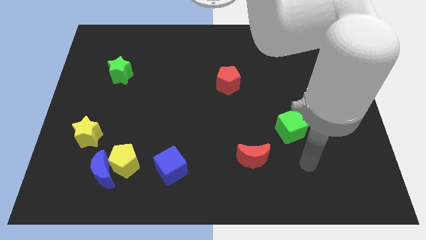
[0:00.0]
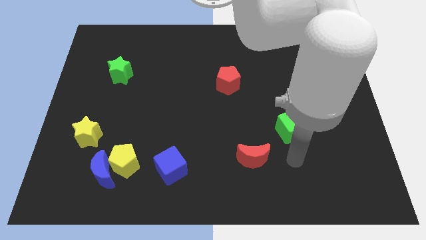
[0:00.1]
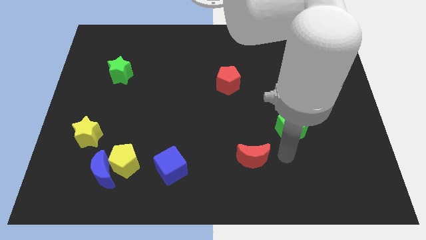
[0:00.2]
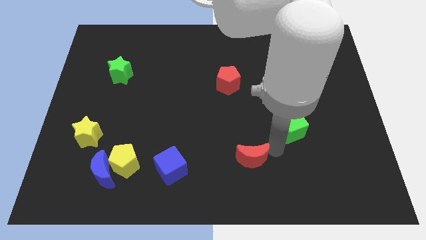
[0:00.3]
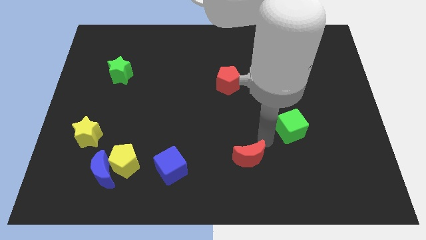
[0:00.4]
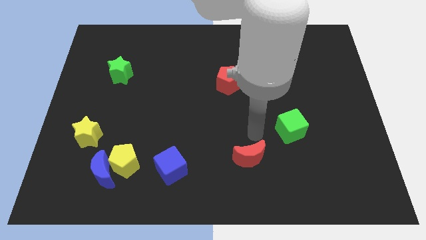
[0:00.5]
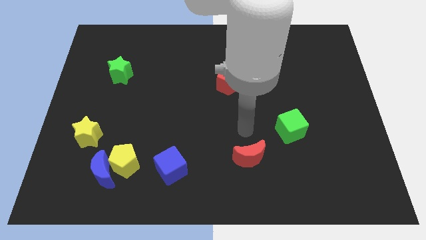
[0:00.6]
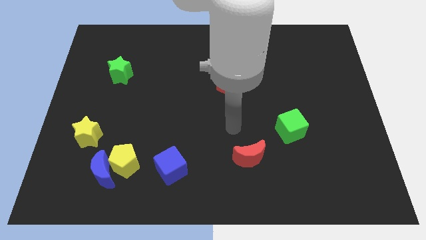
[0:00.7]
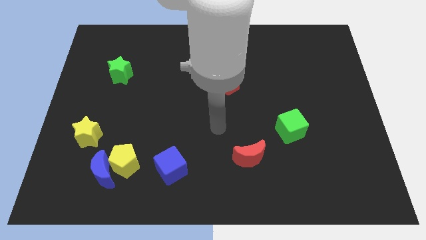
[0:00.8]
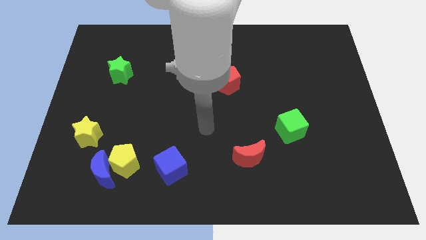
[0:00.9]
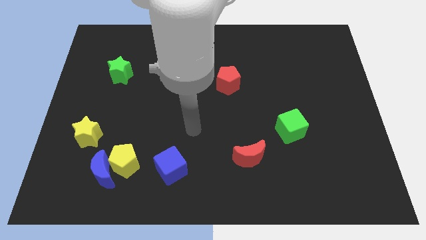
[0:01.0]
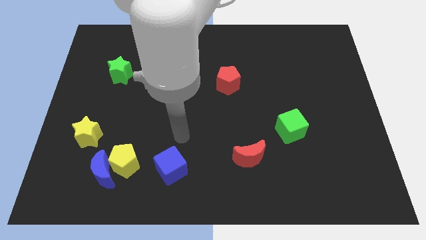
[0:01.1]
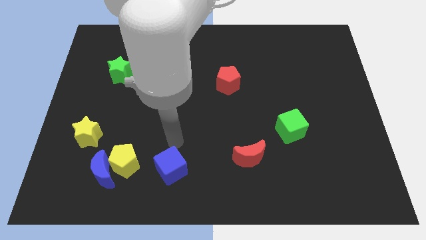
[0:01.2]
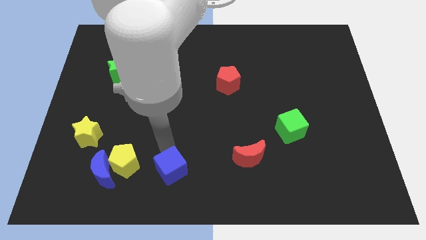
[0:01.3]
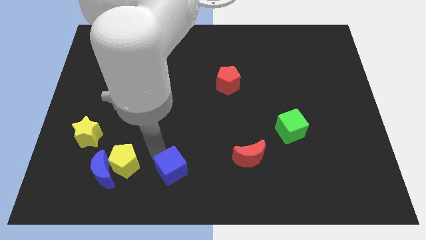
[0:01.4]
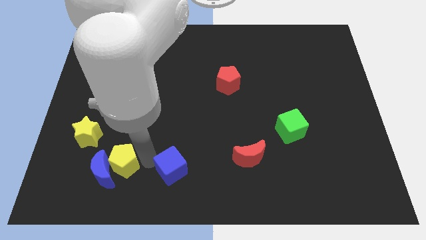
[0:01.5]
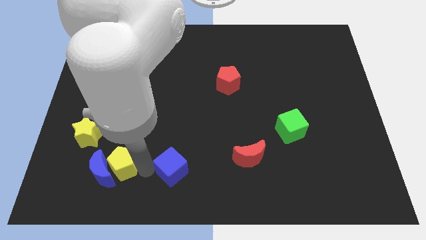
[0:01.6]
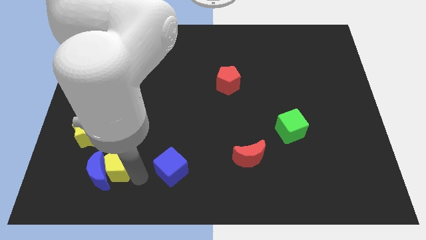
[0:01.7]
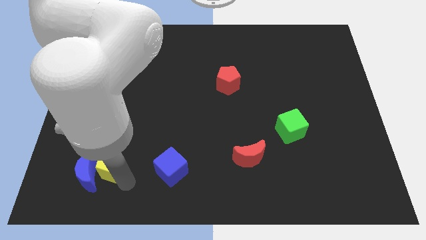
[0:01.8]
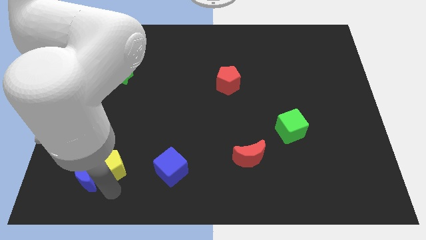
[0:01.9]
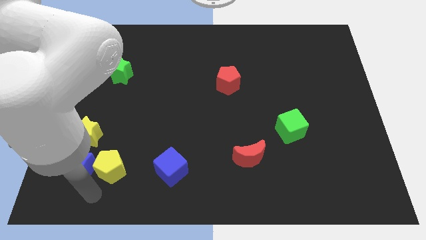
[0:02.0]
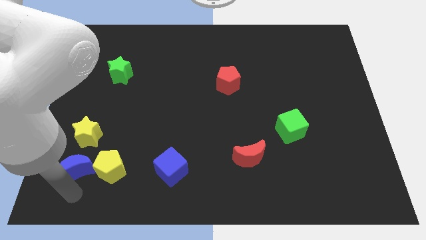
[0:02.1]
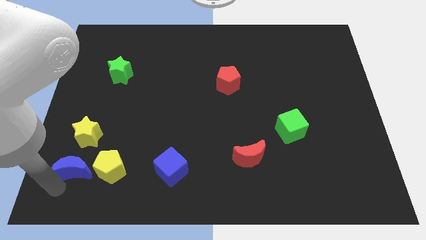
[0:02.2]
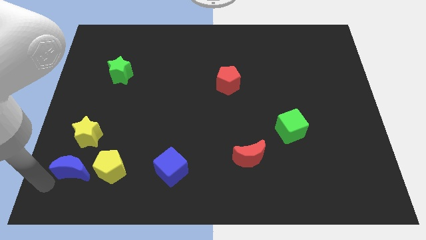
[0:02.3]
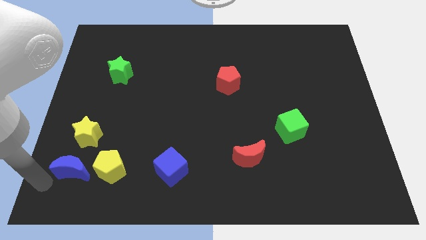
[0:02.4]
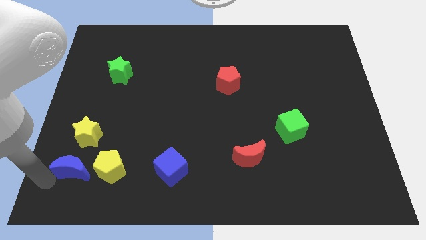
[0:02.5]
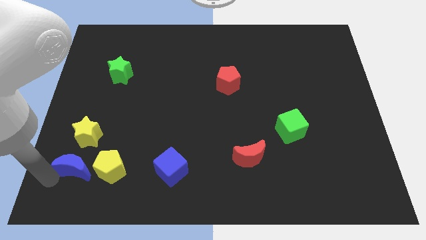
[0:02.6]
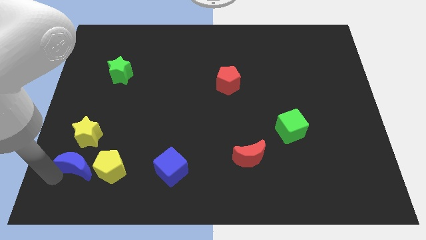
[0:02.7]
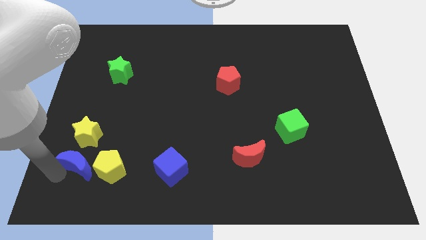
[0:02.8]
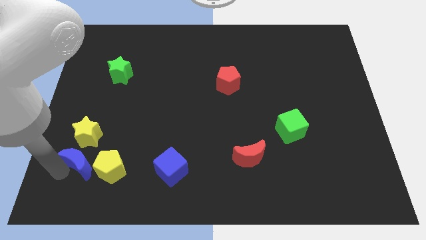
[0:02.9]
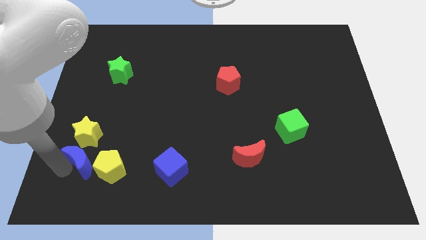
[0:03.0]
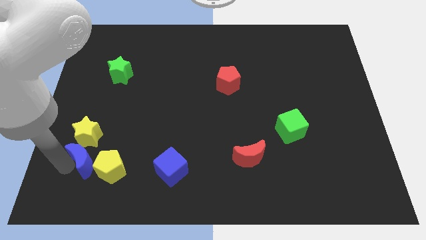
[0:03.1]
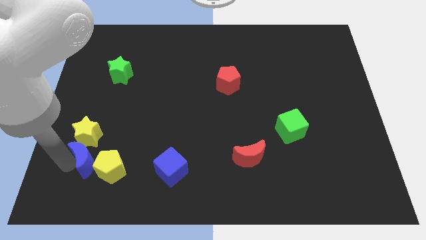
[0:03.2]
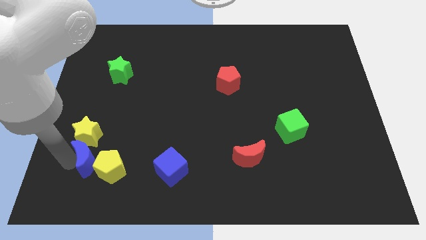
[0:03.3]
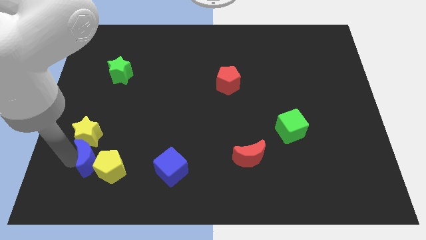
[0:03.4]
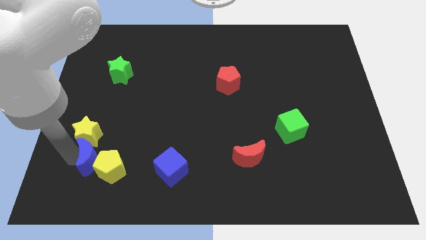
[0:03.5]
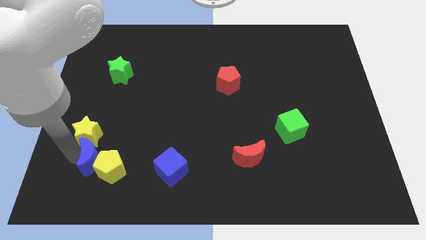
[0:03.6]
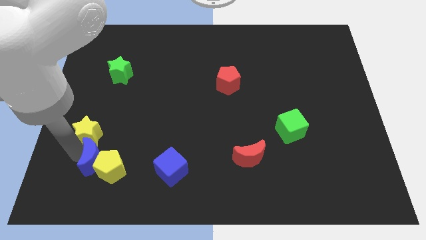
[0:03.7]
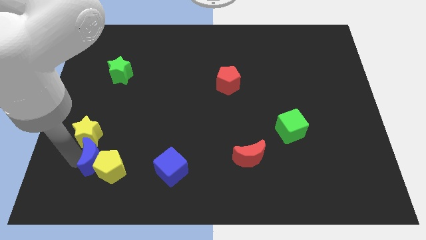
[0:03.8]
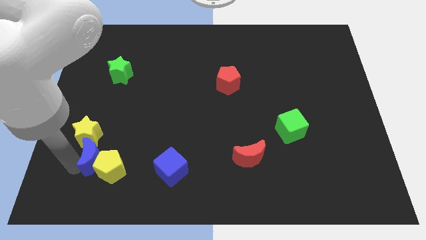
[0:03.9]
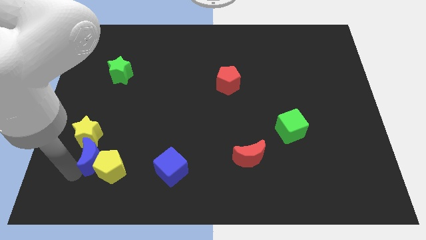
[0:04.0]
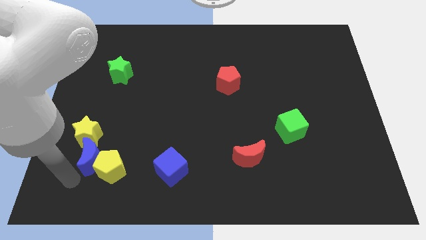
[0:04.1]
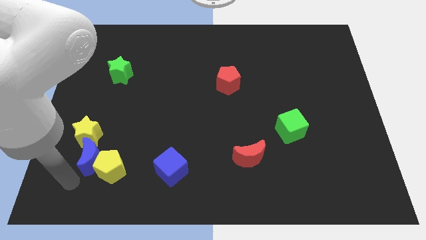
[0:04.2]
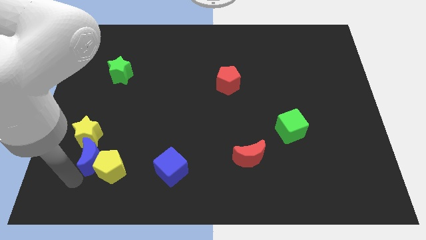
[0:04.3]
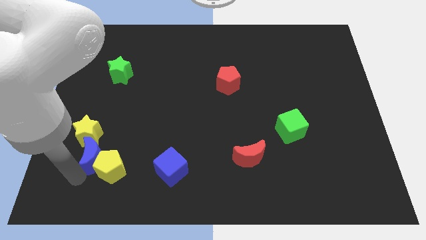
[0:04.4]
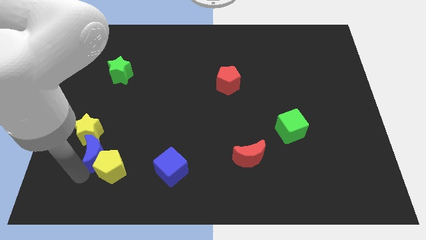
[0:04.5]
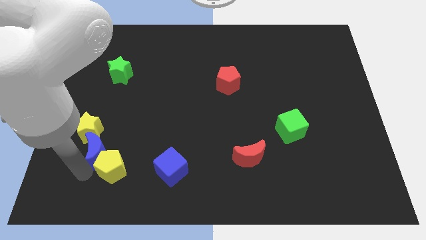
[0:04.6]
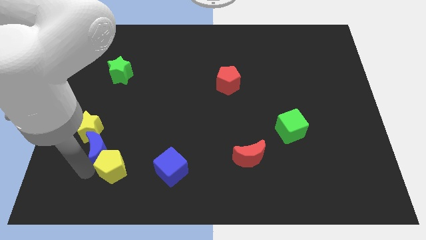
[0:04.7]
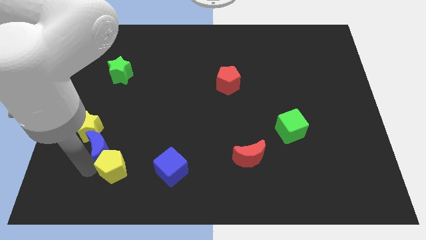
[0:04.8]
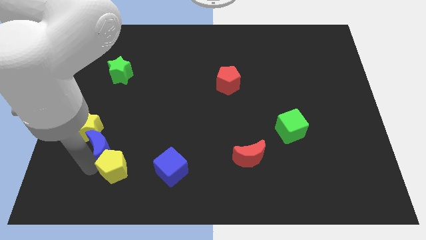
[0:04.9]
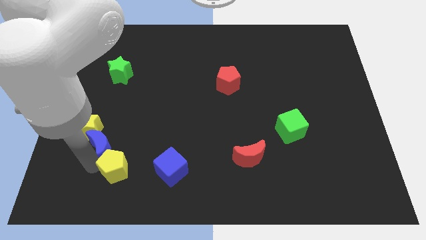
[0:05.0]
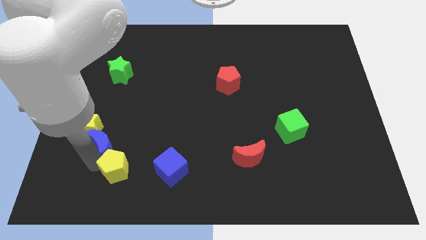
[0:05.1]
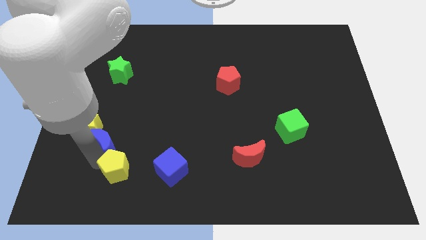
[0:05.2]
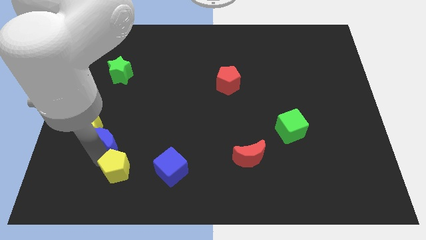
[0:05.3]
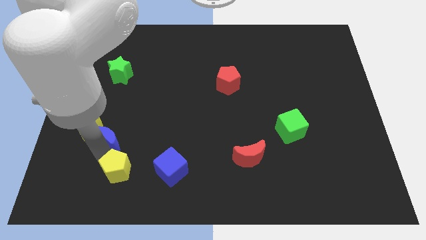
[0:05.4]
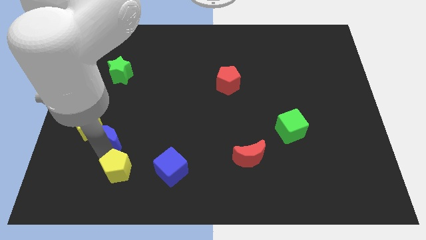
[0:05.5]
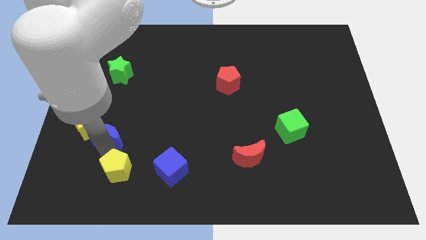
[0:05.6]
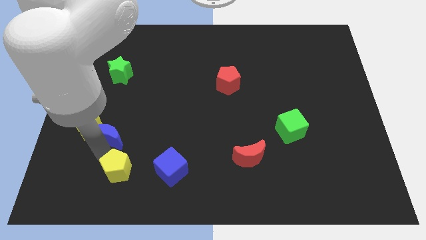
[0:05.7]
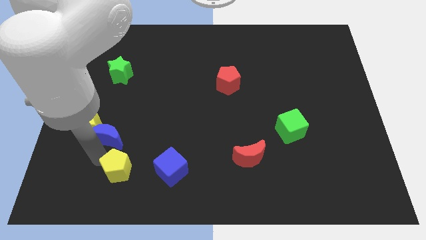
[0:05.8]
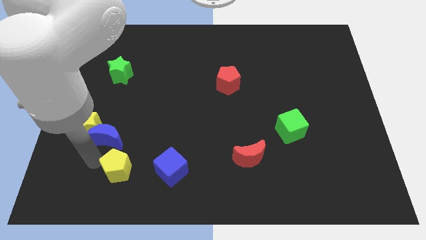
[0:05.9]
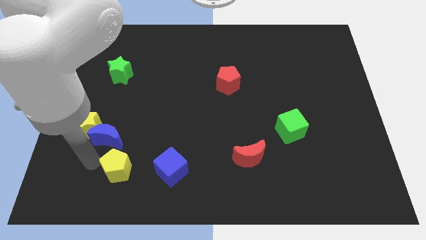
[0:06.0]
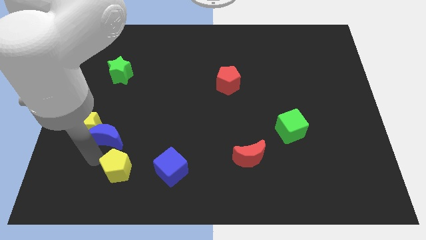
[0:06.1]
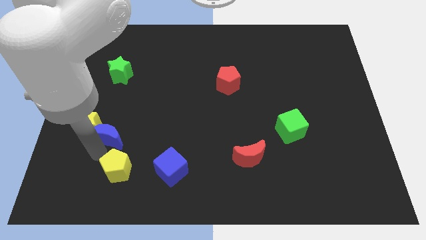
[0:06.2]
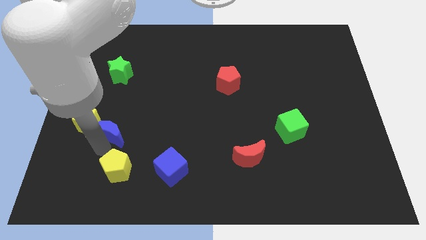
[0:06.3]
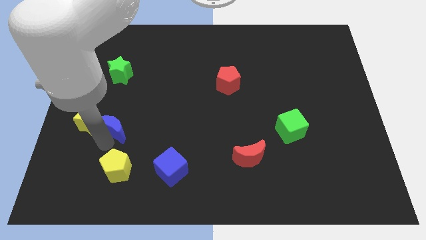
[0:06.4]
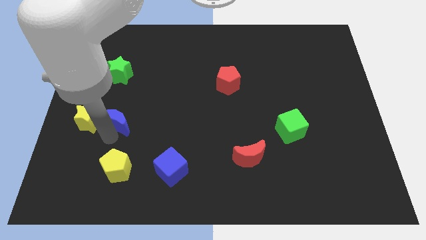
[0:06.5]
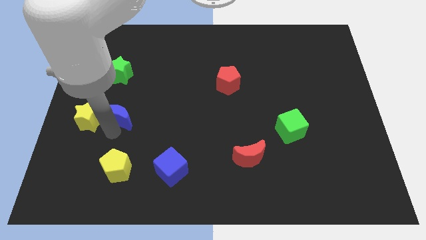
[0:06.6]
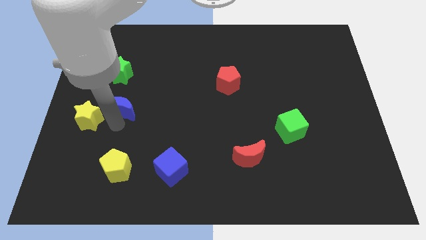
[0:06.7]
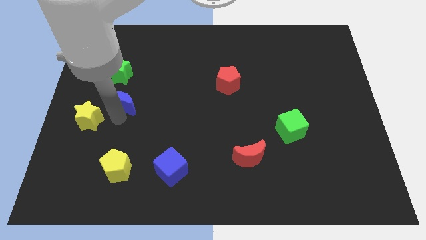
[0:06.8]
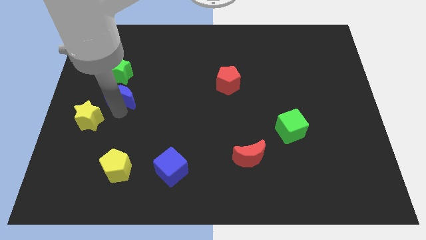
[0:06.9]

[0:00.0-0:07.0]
slide the blue moon upwards

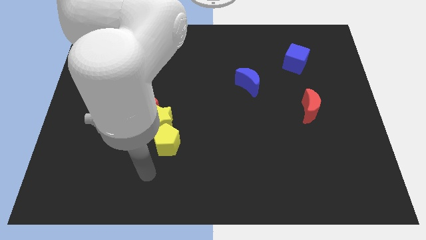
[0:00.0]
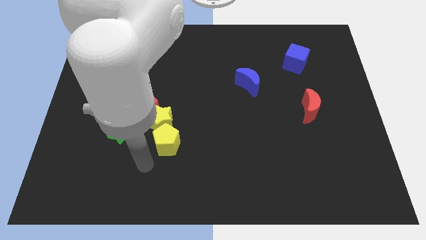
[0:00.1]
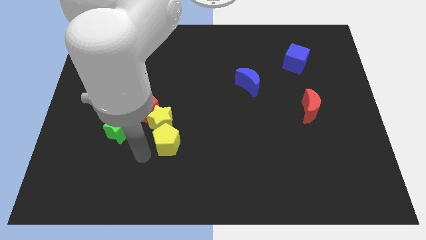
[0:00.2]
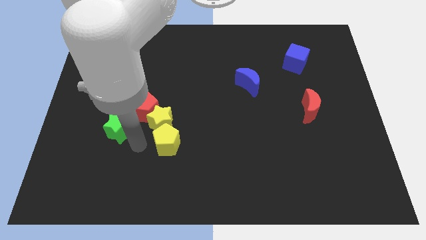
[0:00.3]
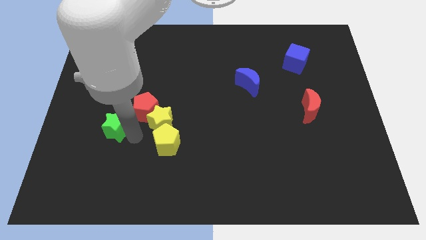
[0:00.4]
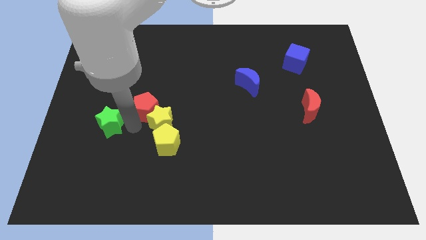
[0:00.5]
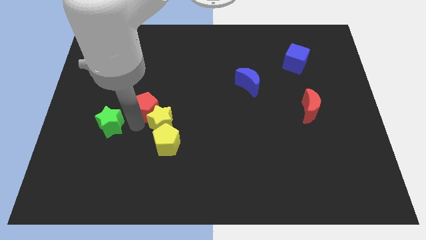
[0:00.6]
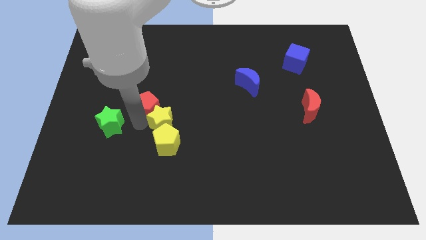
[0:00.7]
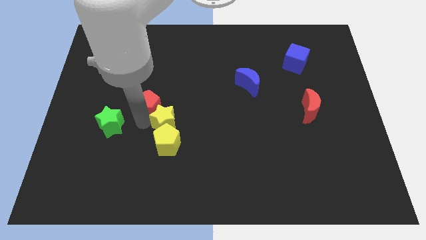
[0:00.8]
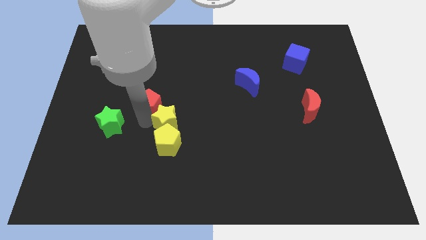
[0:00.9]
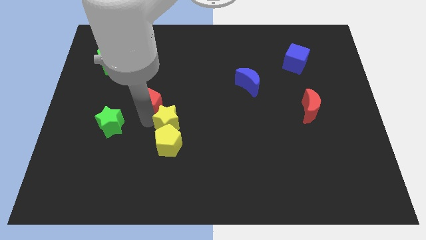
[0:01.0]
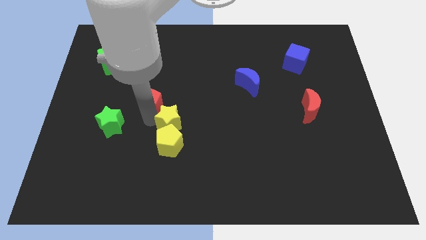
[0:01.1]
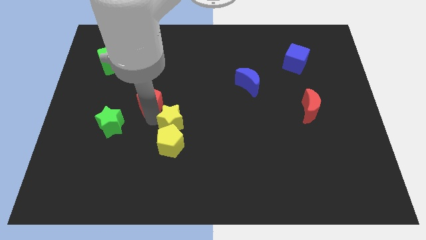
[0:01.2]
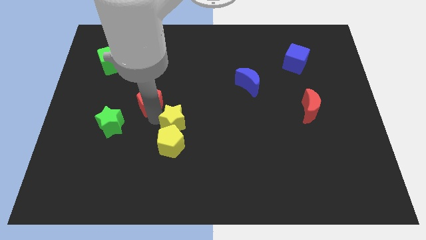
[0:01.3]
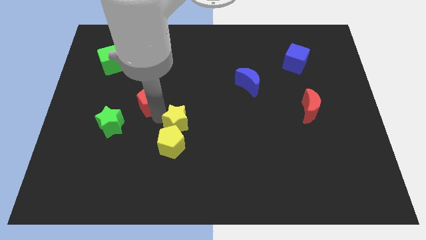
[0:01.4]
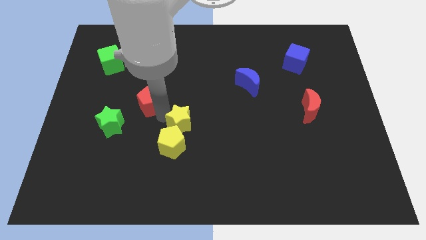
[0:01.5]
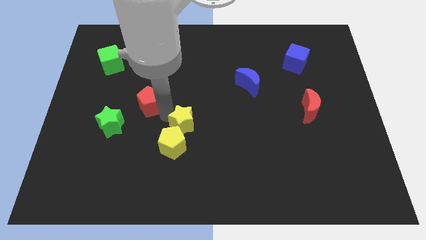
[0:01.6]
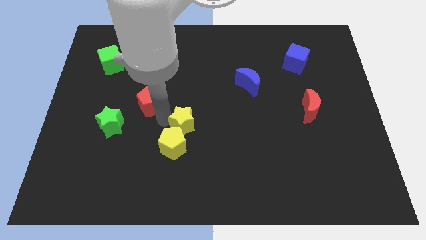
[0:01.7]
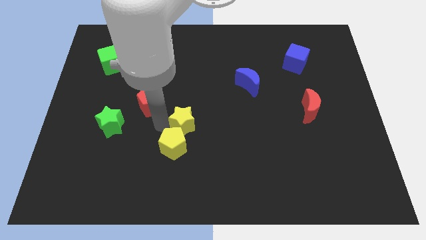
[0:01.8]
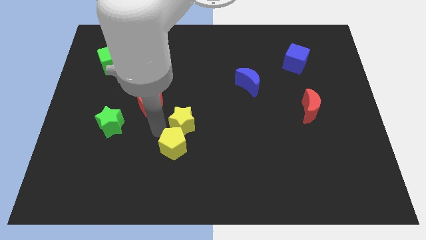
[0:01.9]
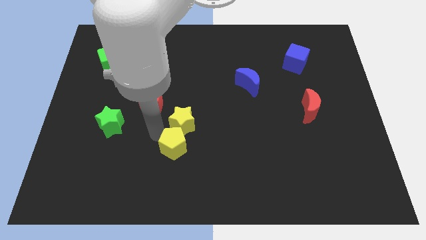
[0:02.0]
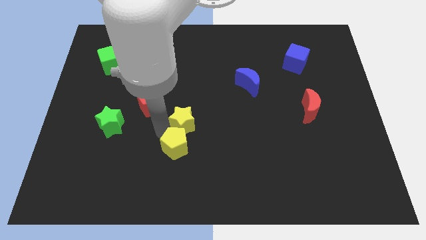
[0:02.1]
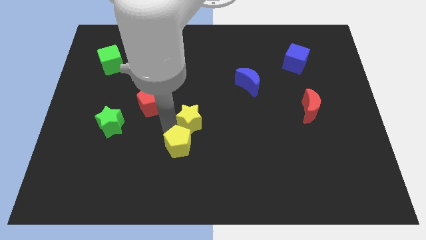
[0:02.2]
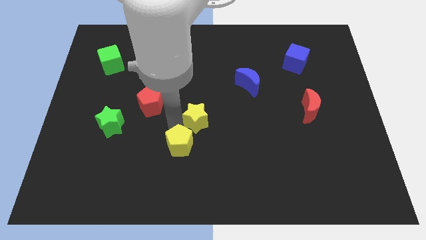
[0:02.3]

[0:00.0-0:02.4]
move the yellow star a bit right
